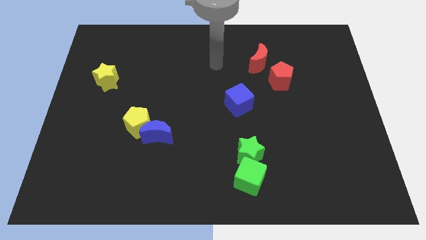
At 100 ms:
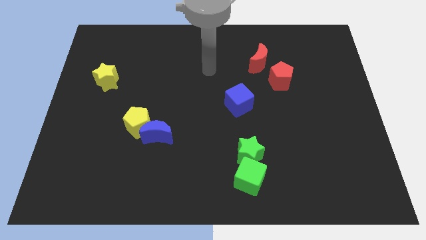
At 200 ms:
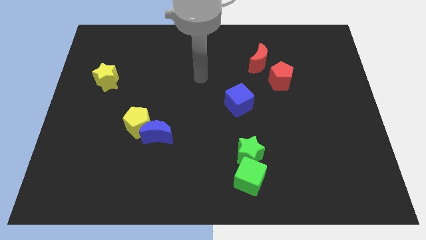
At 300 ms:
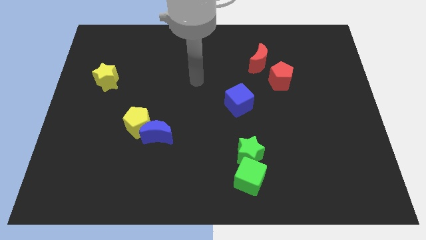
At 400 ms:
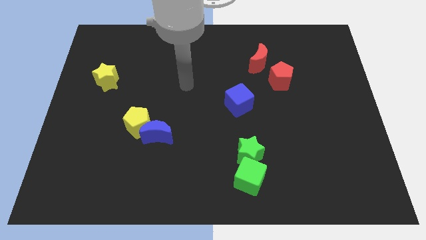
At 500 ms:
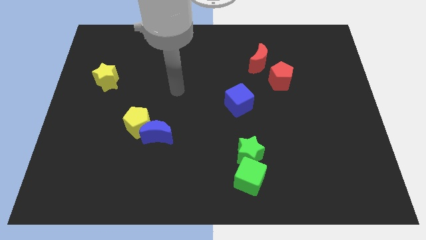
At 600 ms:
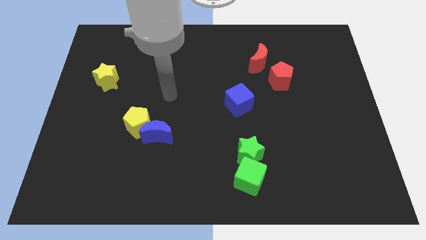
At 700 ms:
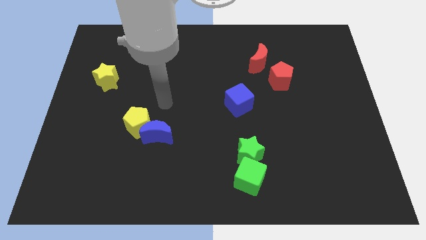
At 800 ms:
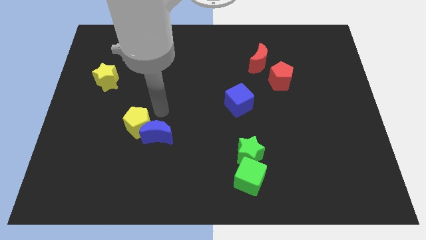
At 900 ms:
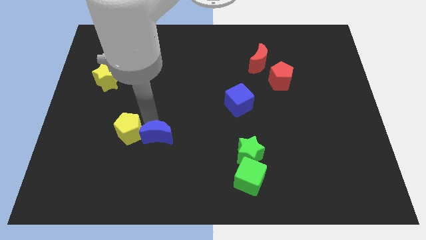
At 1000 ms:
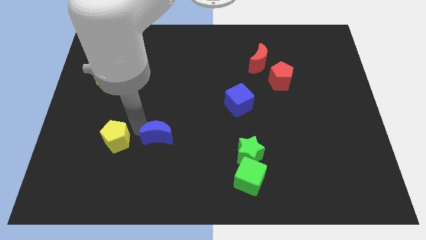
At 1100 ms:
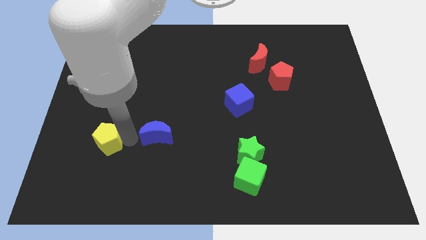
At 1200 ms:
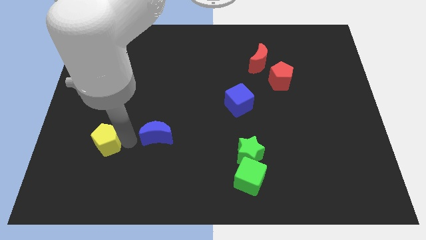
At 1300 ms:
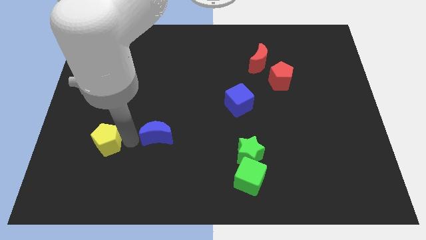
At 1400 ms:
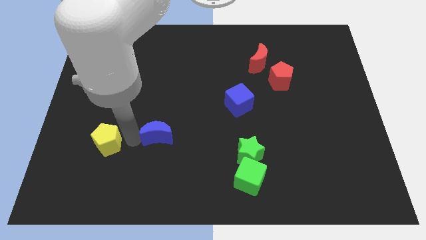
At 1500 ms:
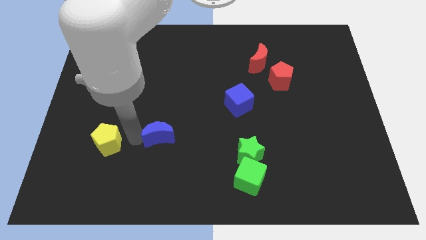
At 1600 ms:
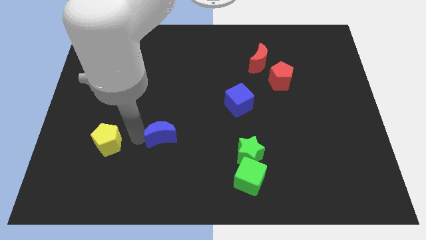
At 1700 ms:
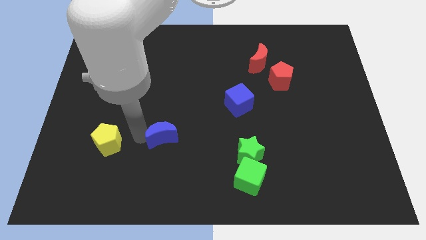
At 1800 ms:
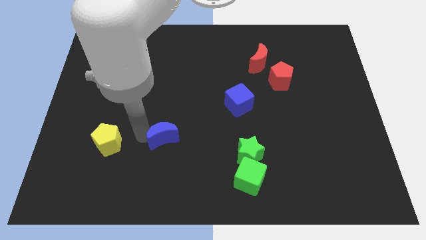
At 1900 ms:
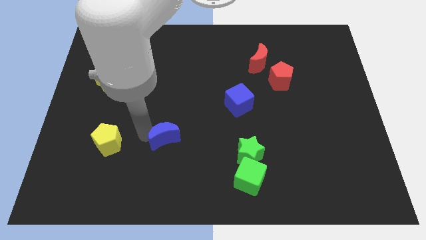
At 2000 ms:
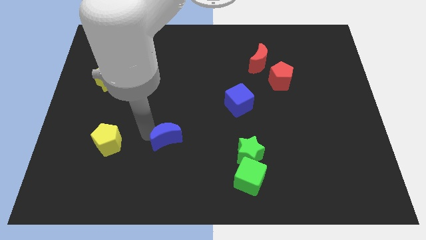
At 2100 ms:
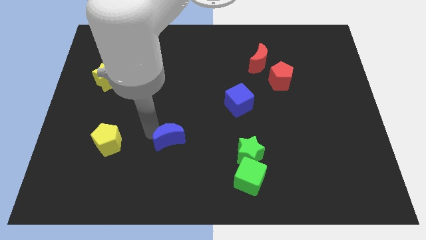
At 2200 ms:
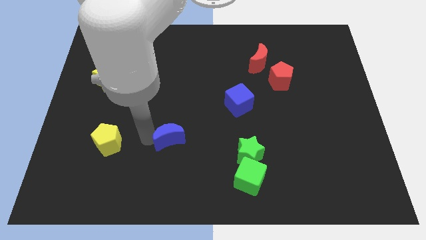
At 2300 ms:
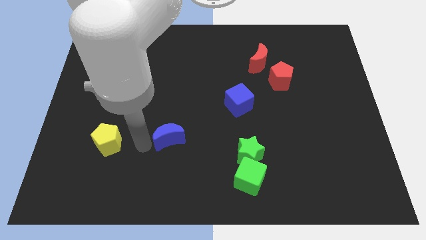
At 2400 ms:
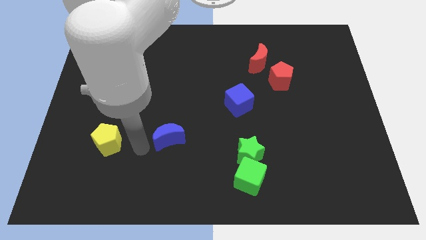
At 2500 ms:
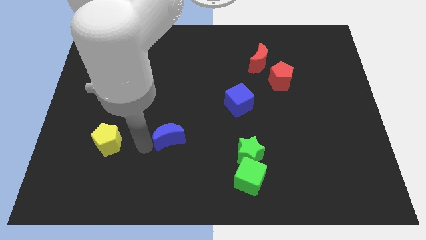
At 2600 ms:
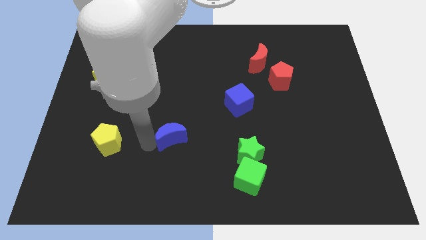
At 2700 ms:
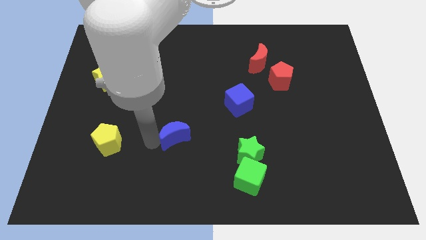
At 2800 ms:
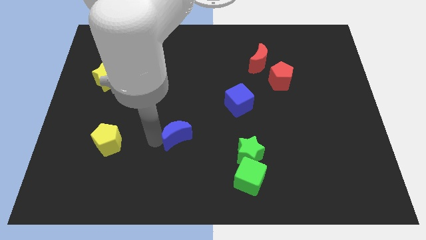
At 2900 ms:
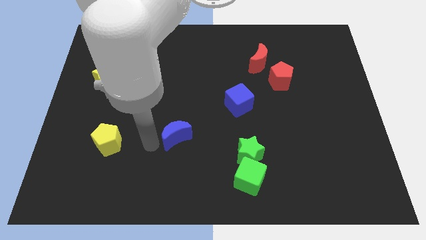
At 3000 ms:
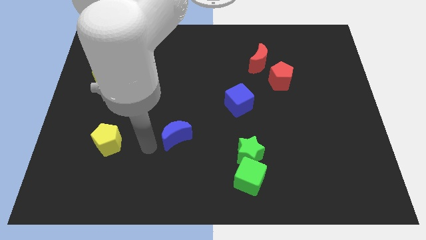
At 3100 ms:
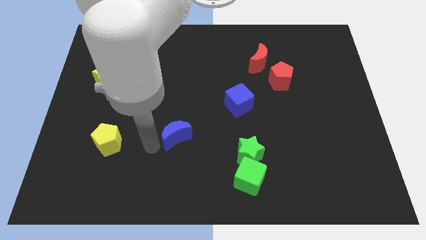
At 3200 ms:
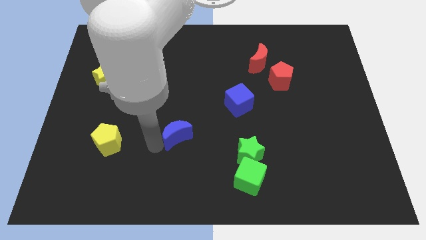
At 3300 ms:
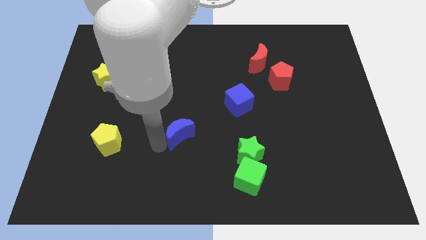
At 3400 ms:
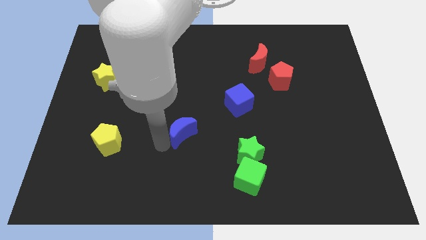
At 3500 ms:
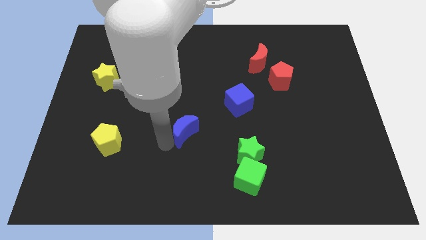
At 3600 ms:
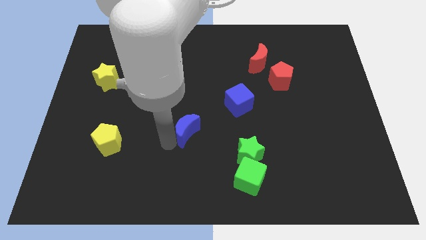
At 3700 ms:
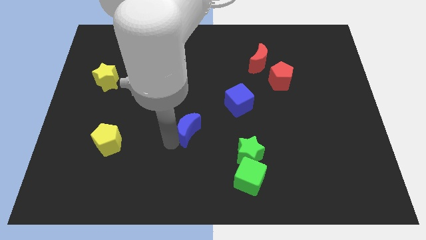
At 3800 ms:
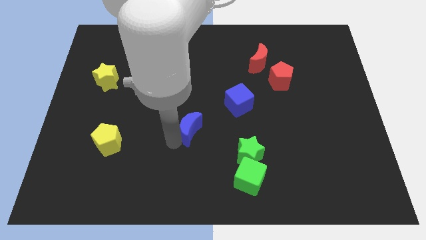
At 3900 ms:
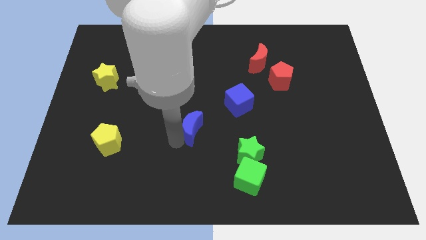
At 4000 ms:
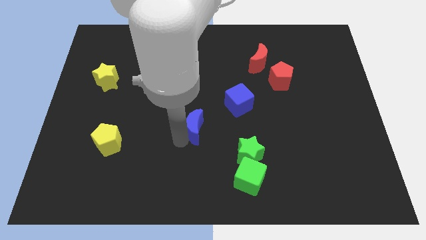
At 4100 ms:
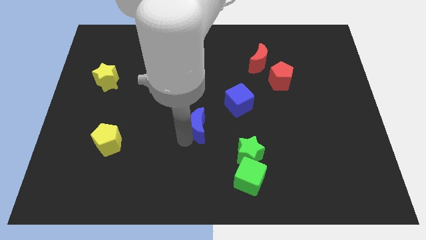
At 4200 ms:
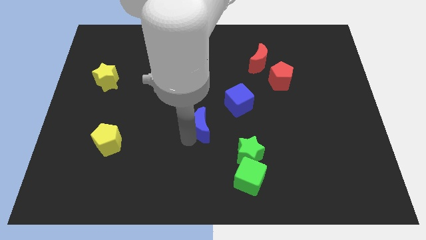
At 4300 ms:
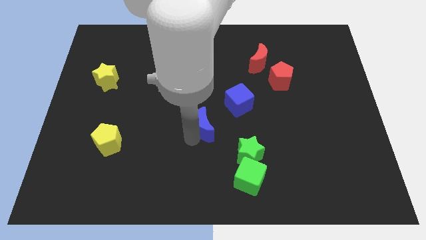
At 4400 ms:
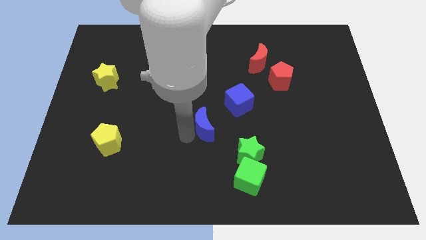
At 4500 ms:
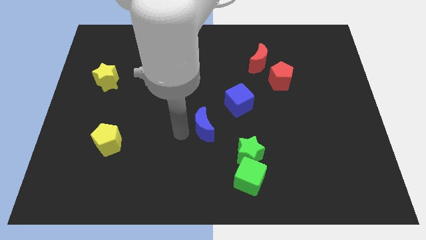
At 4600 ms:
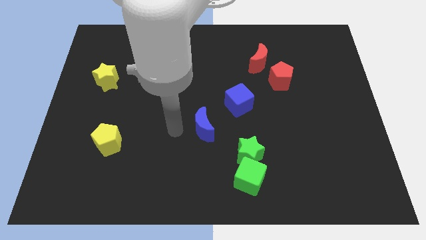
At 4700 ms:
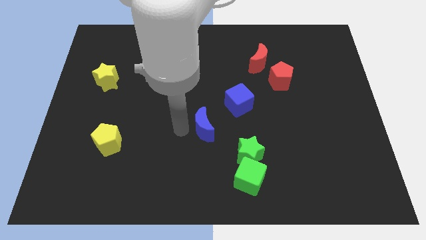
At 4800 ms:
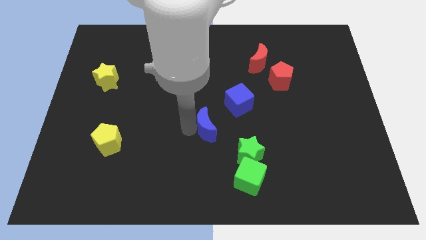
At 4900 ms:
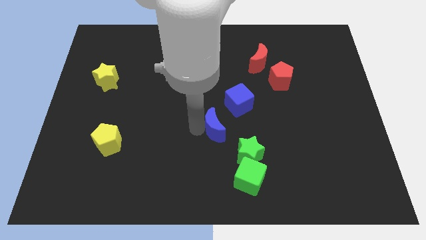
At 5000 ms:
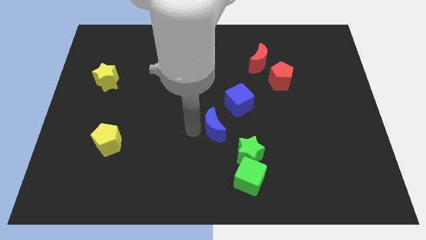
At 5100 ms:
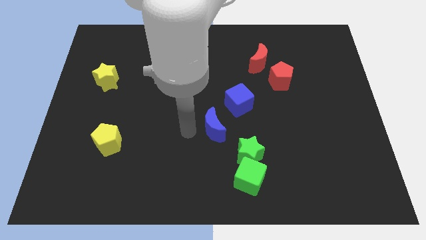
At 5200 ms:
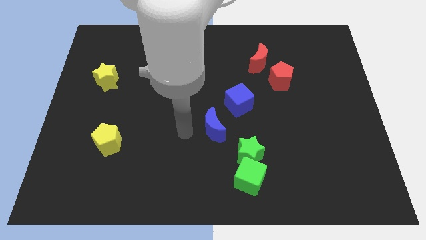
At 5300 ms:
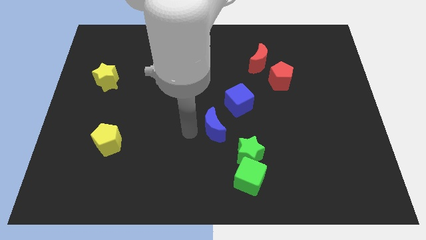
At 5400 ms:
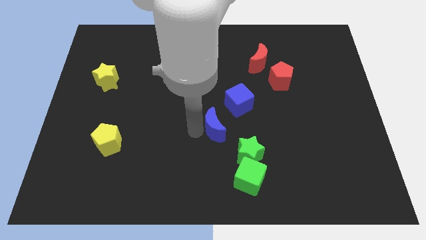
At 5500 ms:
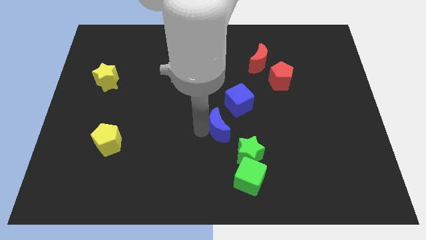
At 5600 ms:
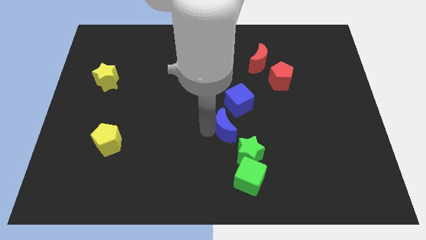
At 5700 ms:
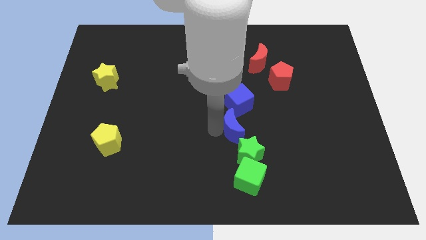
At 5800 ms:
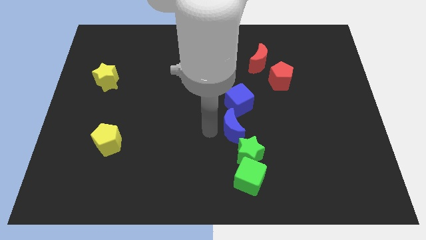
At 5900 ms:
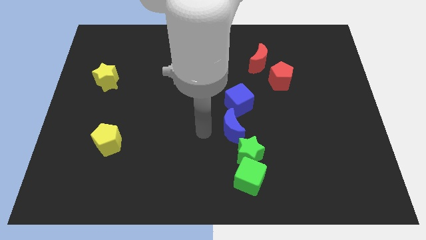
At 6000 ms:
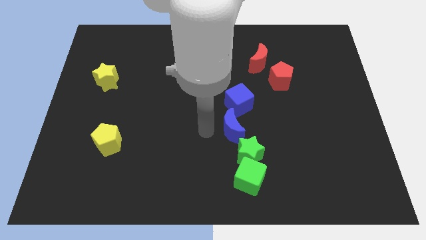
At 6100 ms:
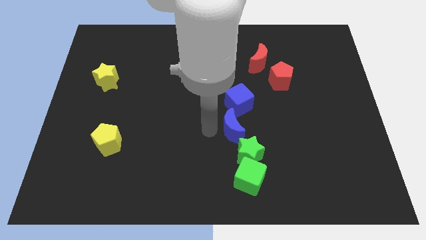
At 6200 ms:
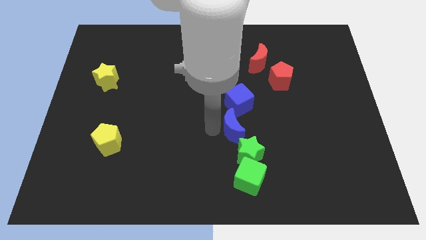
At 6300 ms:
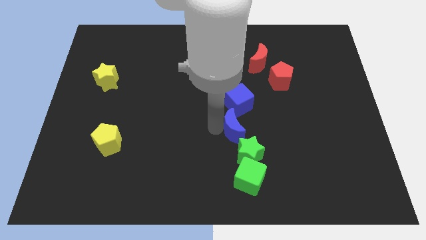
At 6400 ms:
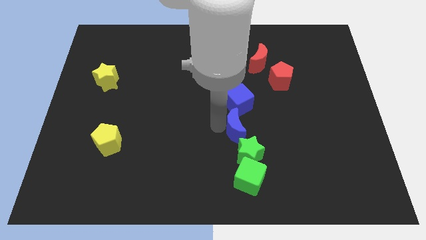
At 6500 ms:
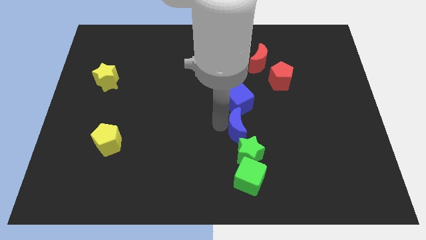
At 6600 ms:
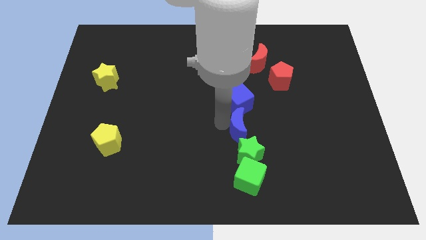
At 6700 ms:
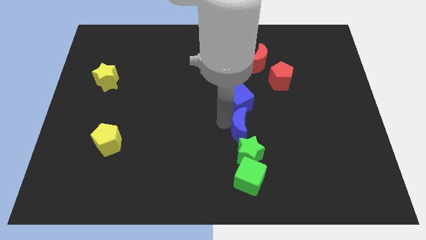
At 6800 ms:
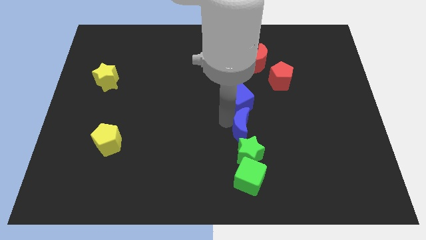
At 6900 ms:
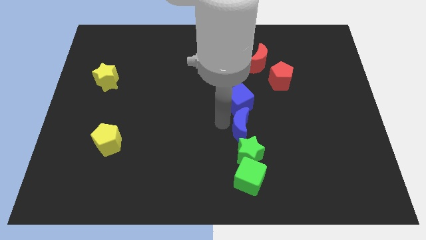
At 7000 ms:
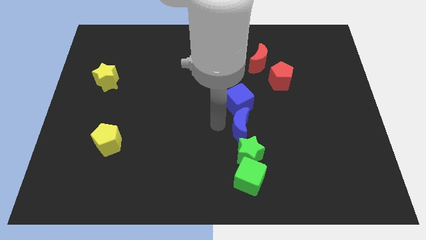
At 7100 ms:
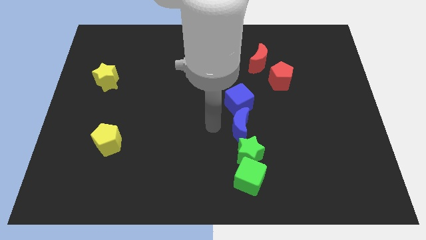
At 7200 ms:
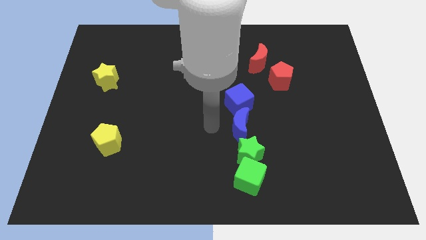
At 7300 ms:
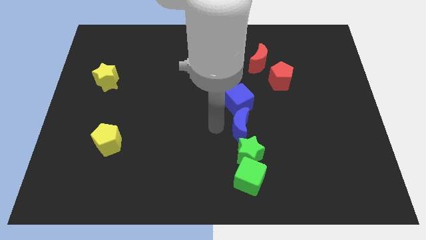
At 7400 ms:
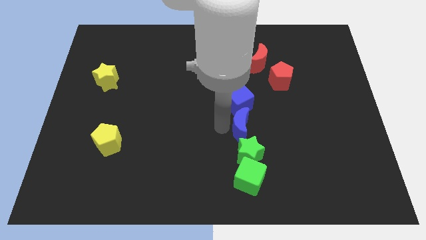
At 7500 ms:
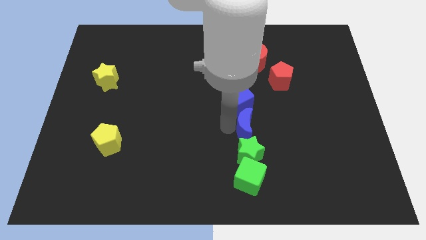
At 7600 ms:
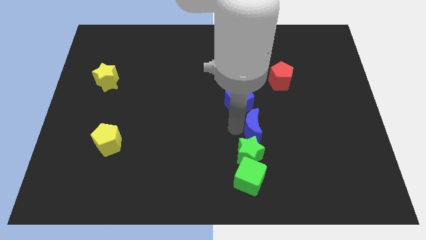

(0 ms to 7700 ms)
push the blue moon right
